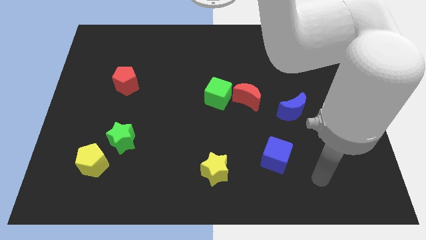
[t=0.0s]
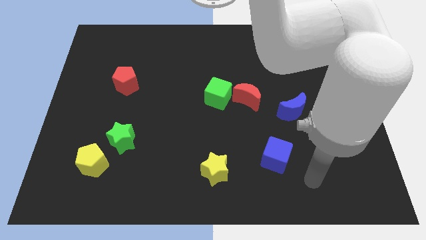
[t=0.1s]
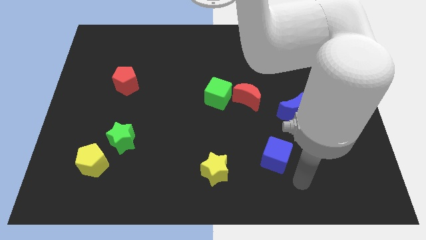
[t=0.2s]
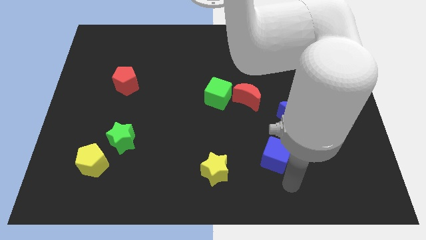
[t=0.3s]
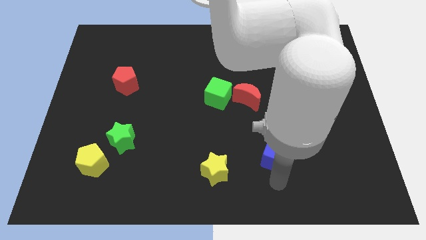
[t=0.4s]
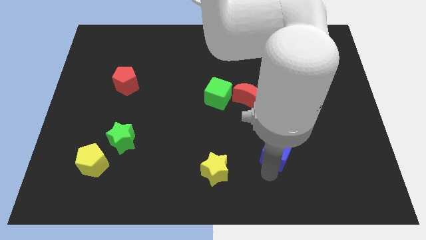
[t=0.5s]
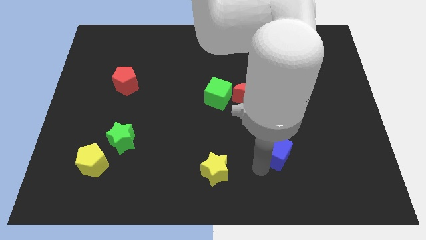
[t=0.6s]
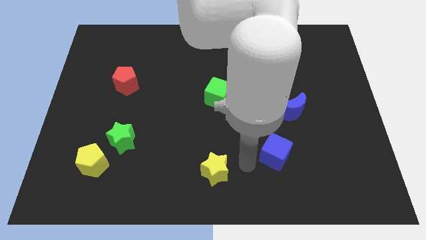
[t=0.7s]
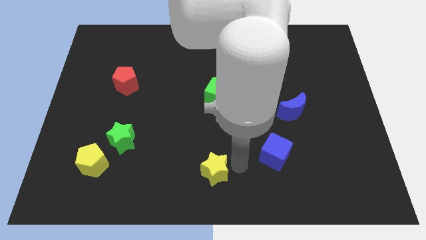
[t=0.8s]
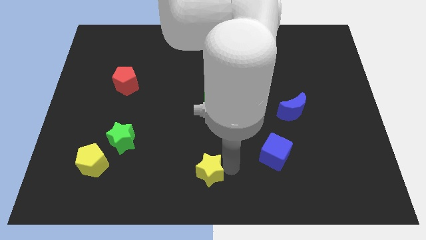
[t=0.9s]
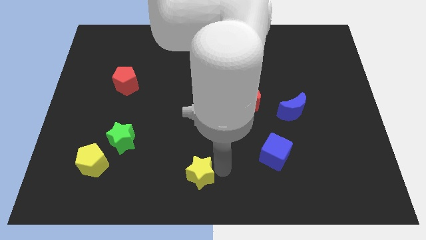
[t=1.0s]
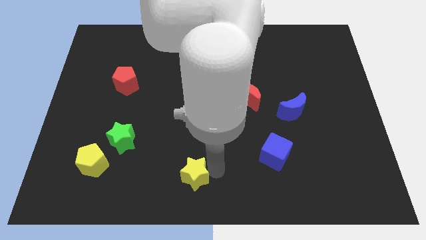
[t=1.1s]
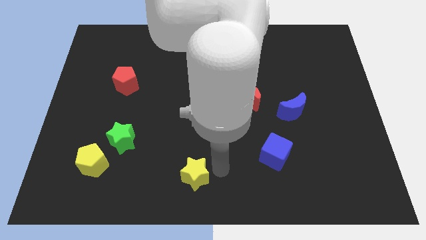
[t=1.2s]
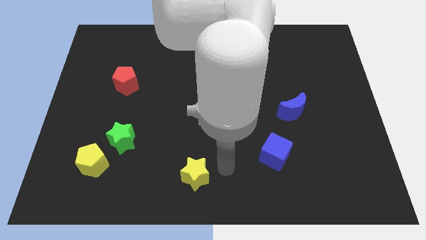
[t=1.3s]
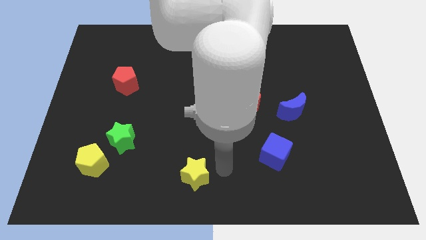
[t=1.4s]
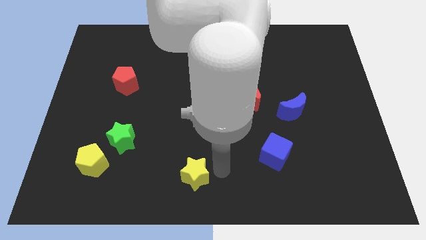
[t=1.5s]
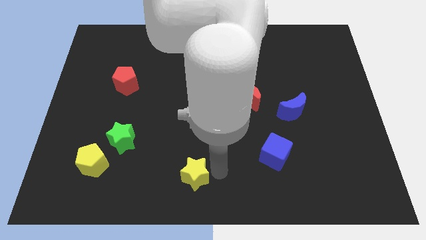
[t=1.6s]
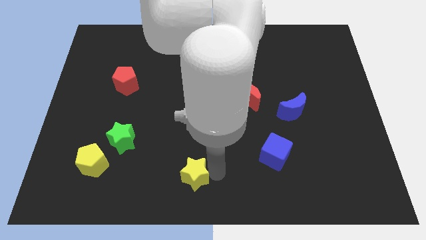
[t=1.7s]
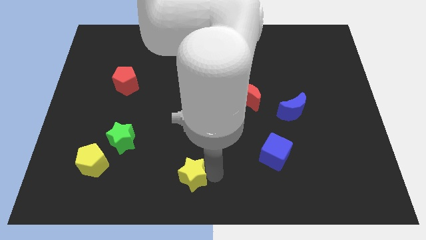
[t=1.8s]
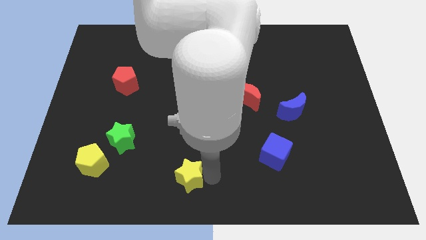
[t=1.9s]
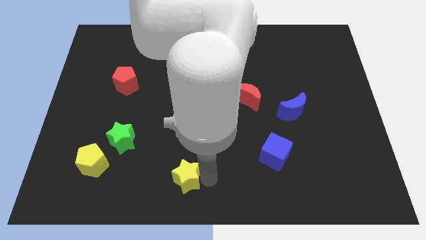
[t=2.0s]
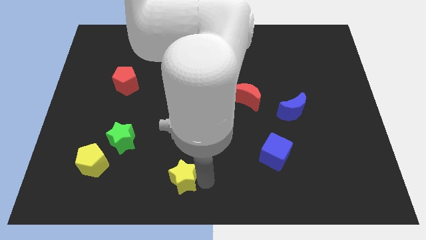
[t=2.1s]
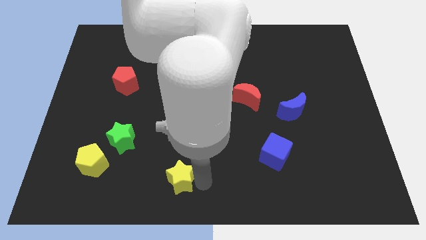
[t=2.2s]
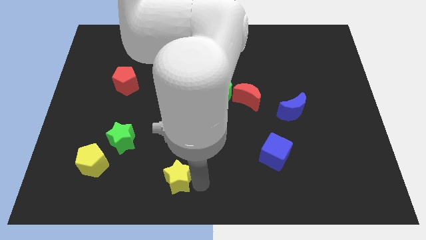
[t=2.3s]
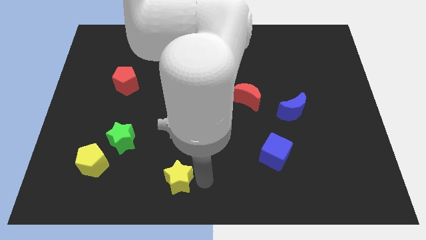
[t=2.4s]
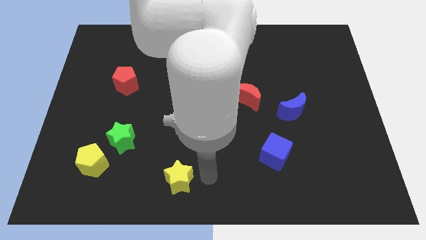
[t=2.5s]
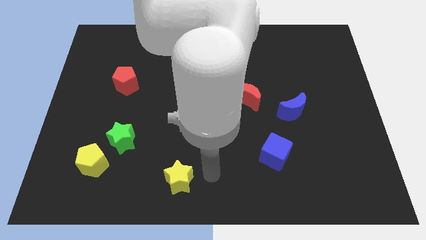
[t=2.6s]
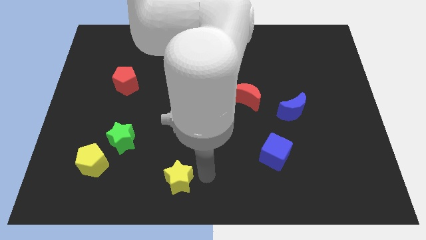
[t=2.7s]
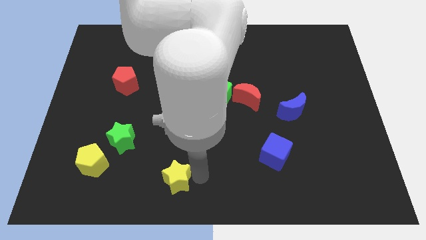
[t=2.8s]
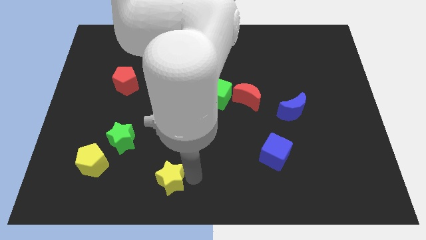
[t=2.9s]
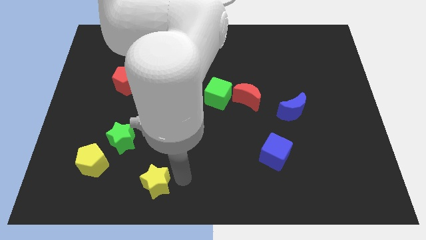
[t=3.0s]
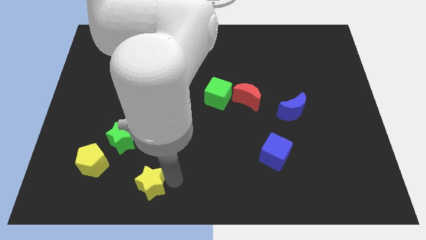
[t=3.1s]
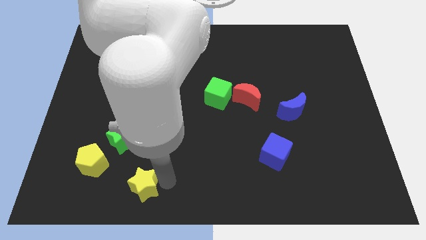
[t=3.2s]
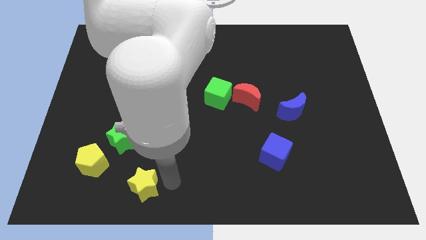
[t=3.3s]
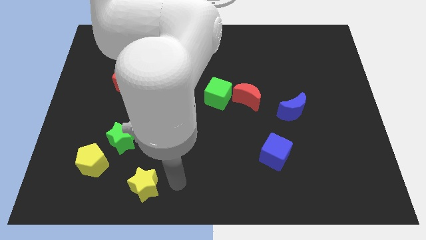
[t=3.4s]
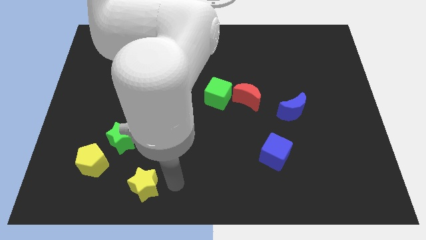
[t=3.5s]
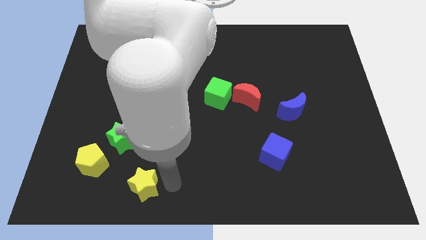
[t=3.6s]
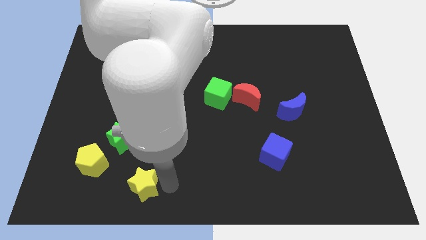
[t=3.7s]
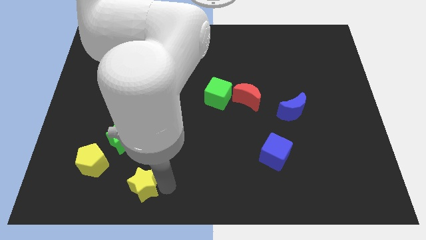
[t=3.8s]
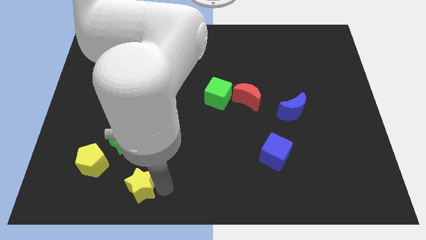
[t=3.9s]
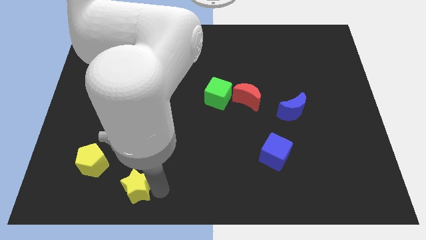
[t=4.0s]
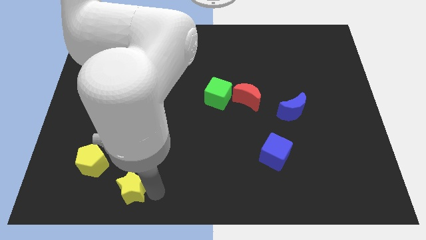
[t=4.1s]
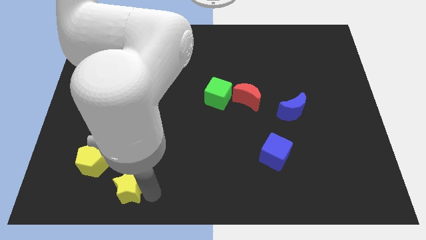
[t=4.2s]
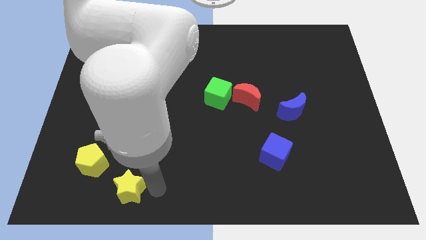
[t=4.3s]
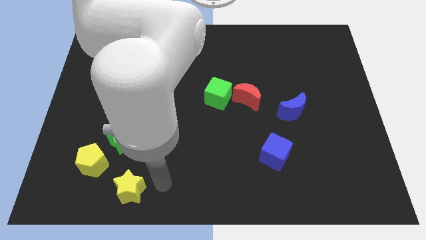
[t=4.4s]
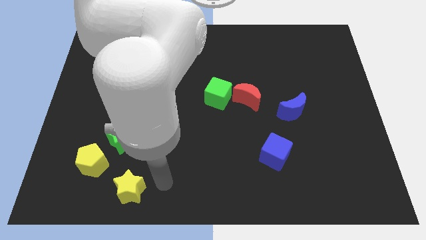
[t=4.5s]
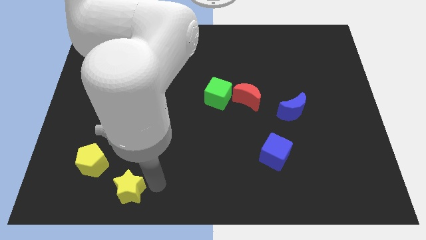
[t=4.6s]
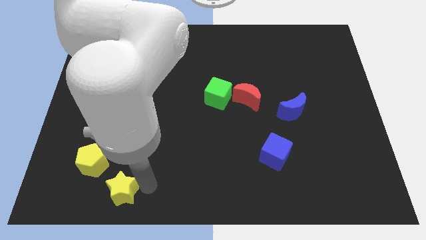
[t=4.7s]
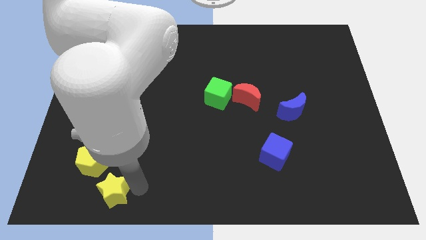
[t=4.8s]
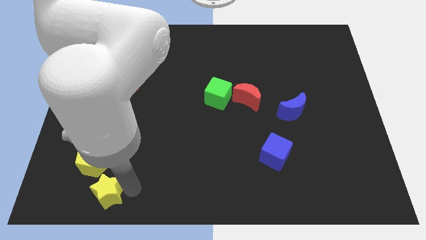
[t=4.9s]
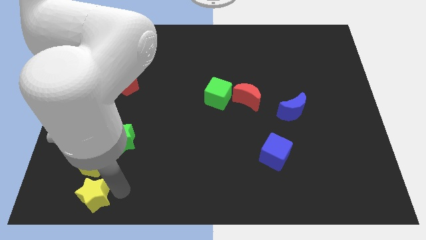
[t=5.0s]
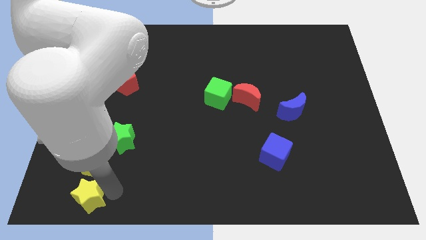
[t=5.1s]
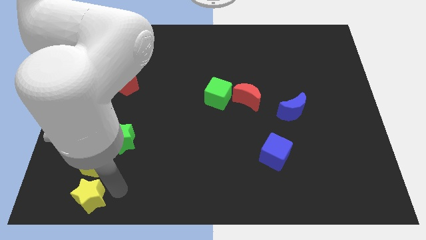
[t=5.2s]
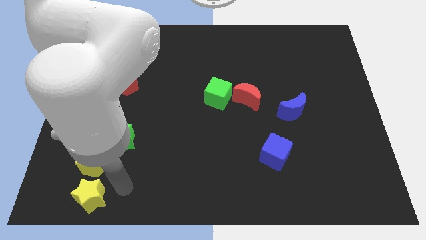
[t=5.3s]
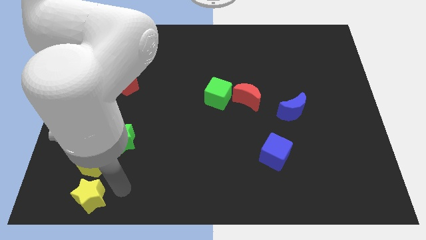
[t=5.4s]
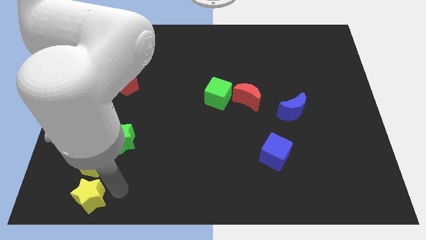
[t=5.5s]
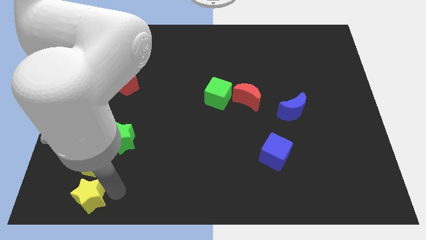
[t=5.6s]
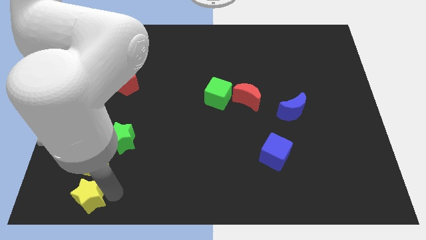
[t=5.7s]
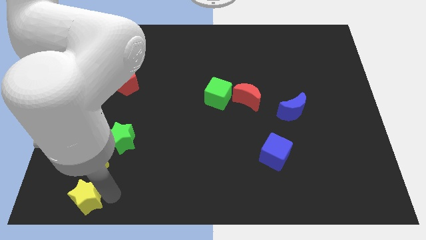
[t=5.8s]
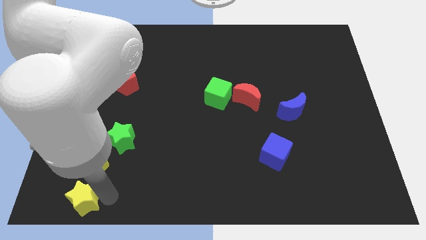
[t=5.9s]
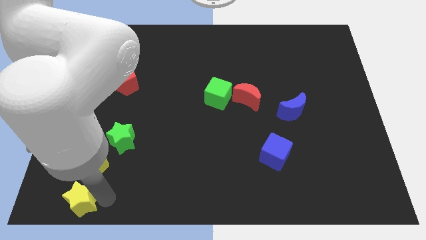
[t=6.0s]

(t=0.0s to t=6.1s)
put the yellow star to the lower left corner
